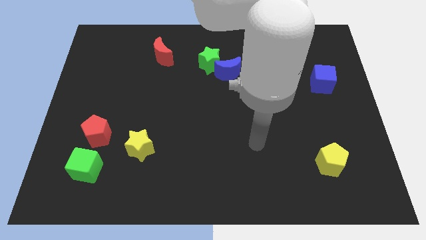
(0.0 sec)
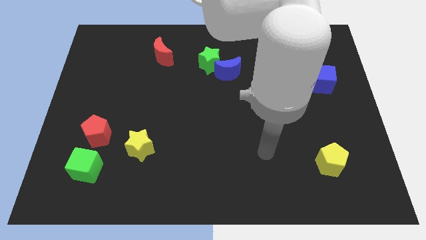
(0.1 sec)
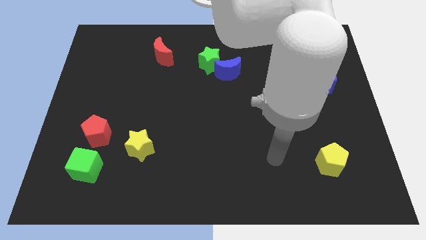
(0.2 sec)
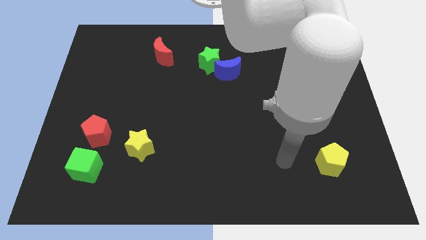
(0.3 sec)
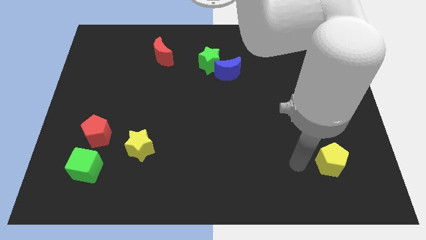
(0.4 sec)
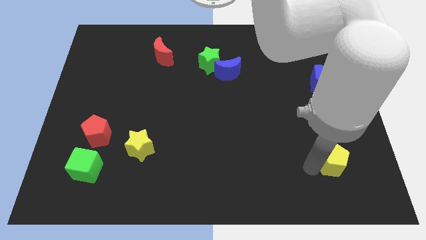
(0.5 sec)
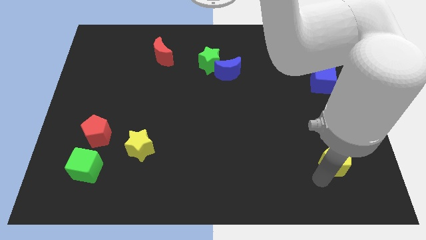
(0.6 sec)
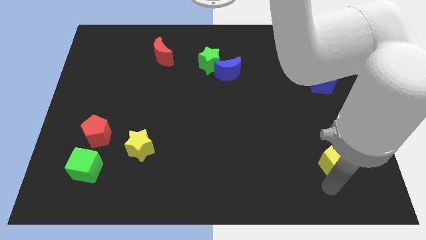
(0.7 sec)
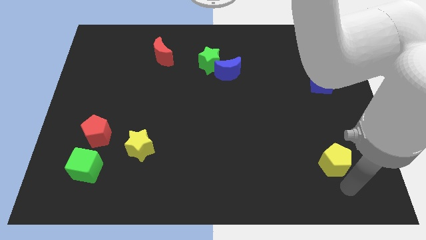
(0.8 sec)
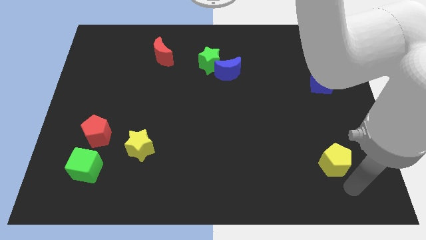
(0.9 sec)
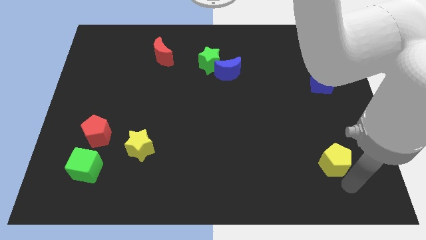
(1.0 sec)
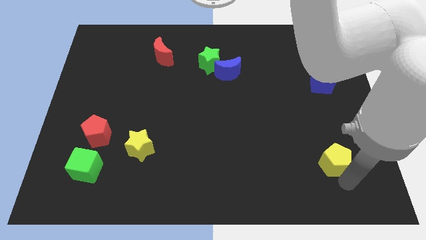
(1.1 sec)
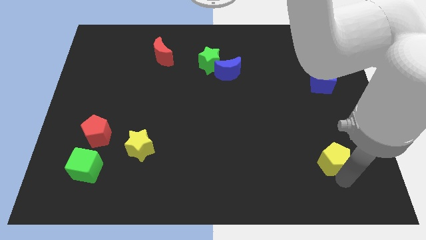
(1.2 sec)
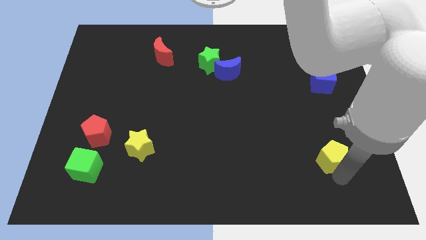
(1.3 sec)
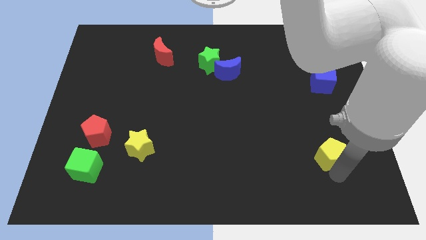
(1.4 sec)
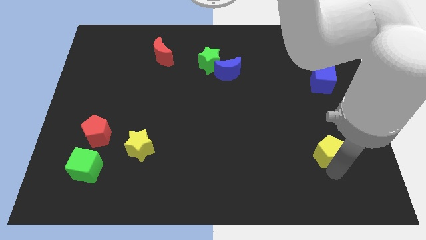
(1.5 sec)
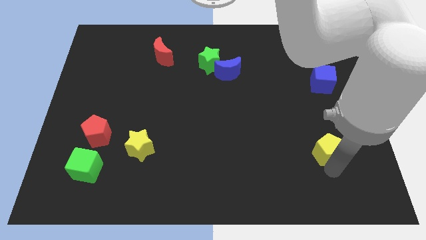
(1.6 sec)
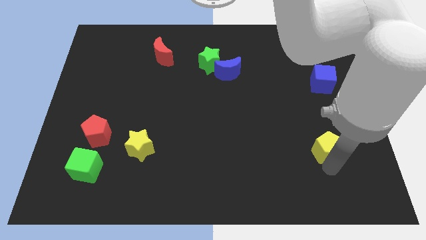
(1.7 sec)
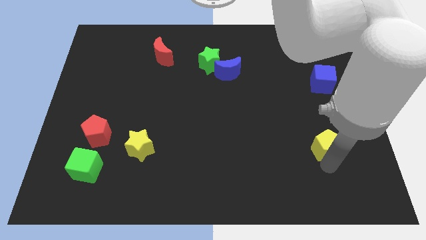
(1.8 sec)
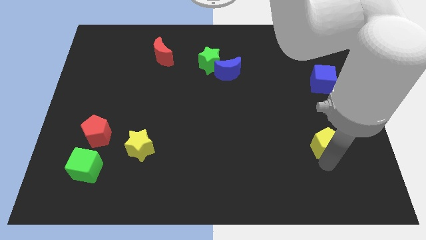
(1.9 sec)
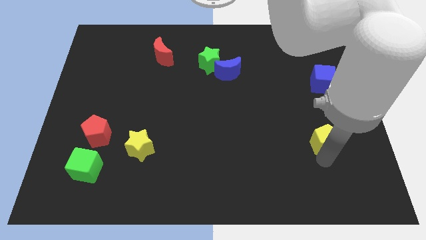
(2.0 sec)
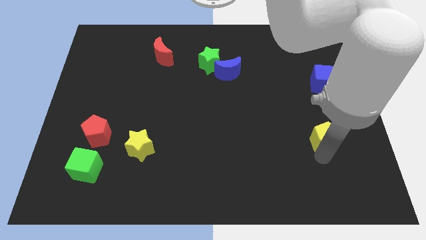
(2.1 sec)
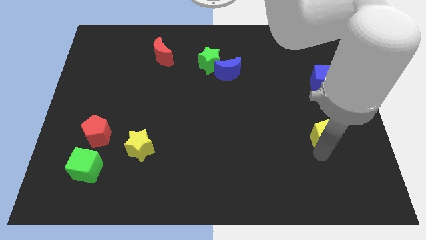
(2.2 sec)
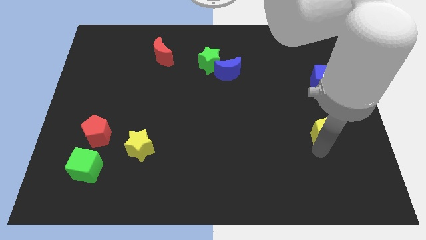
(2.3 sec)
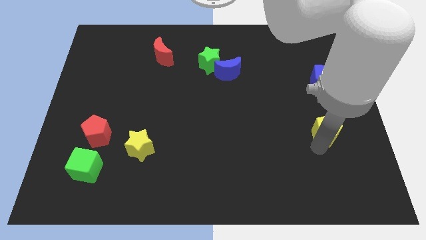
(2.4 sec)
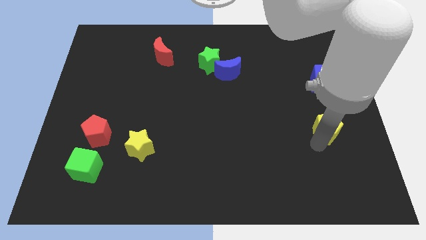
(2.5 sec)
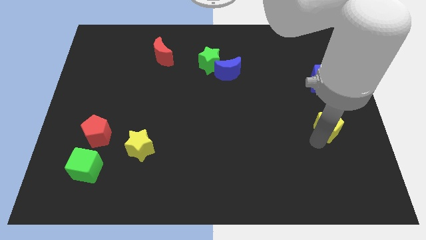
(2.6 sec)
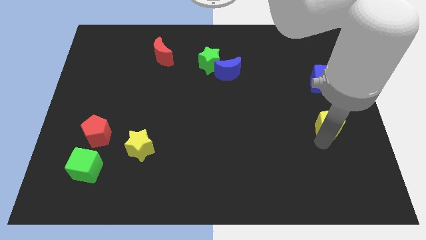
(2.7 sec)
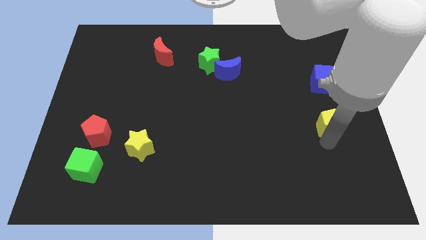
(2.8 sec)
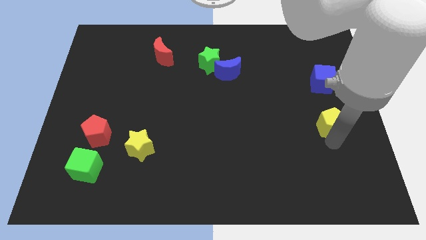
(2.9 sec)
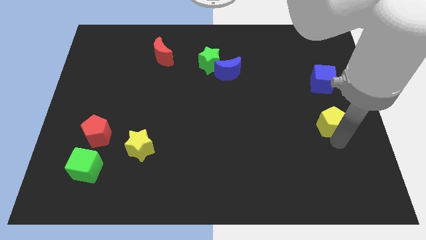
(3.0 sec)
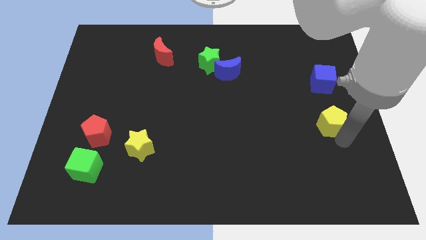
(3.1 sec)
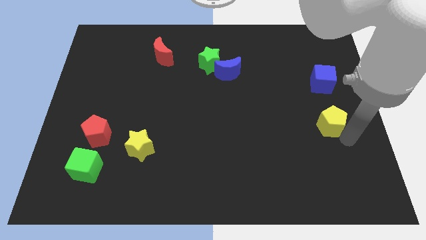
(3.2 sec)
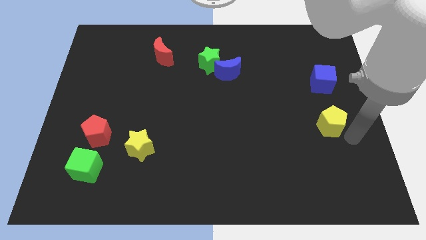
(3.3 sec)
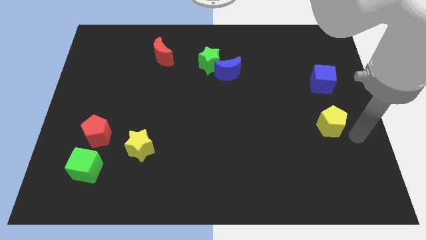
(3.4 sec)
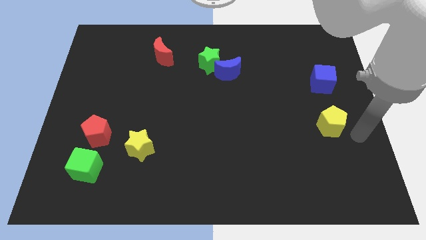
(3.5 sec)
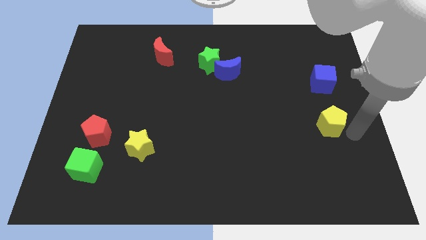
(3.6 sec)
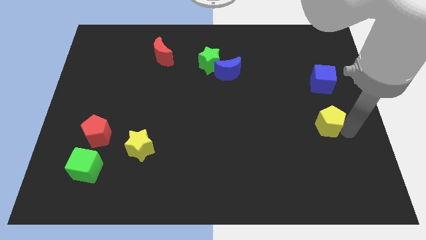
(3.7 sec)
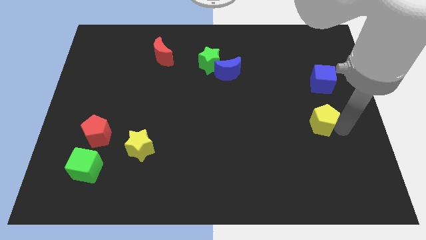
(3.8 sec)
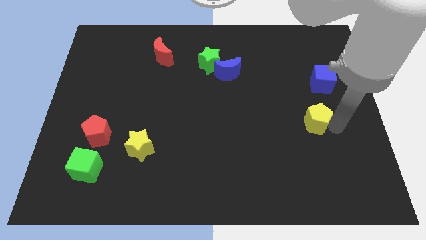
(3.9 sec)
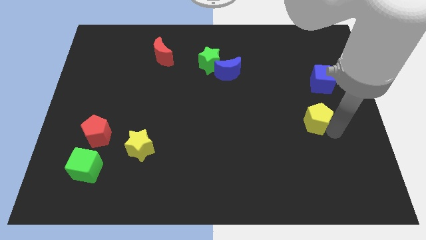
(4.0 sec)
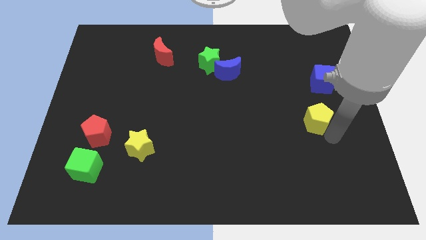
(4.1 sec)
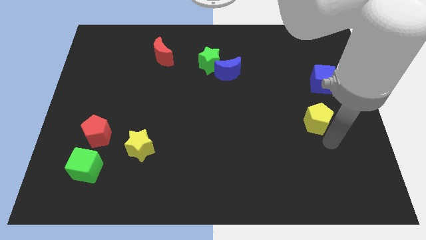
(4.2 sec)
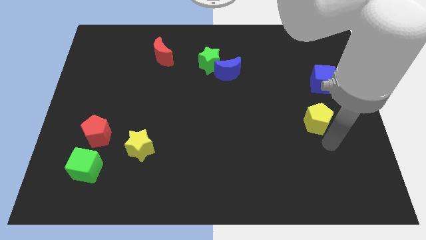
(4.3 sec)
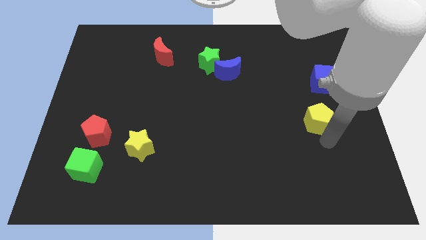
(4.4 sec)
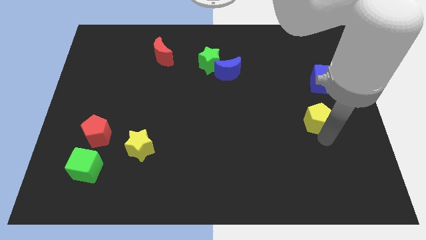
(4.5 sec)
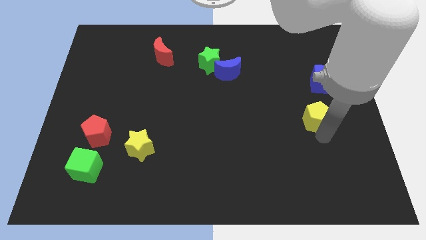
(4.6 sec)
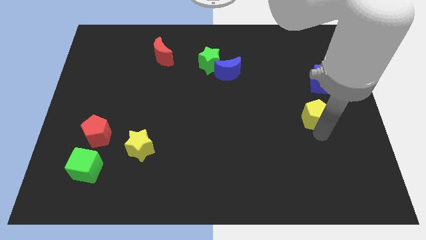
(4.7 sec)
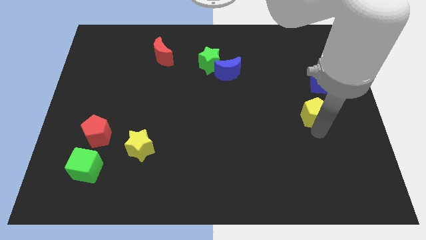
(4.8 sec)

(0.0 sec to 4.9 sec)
push the yellow pentagon to the bottom left side of the blue cube

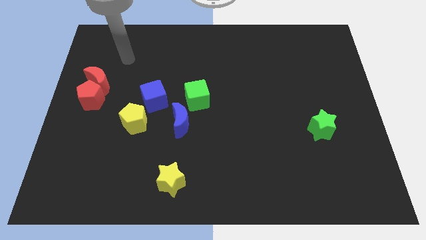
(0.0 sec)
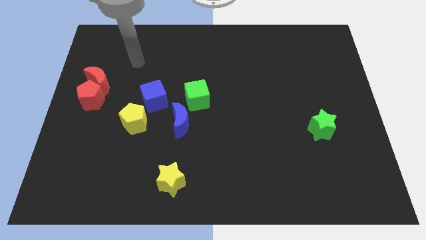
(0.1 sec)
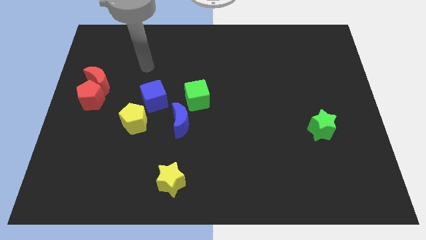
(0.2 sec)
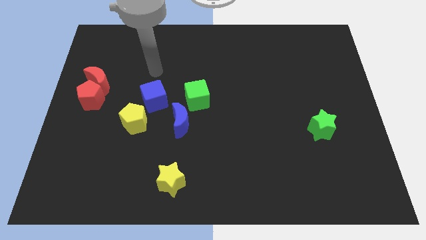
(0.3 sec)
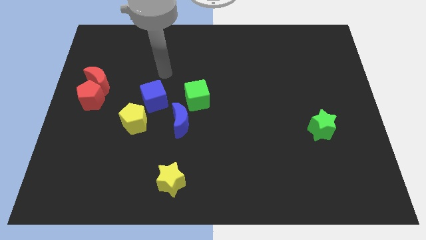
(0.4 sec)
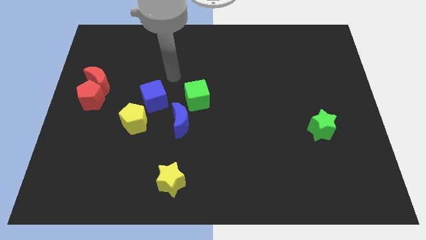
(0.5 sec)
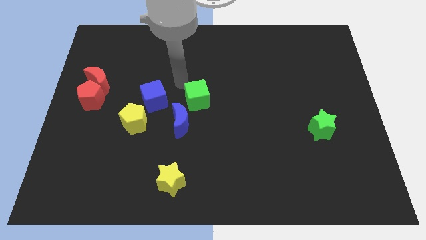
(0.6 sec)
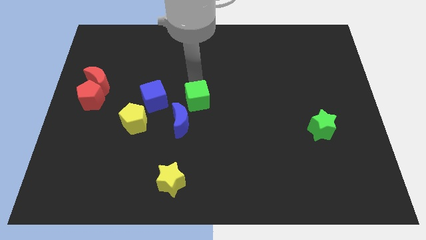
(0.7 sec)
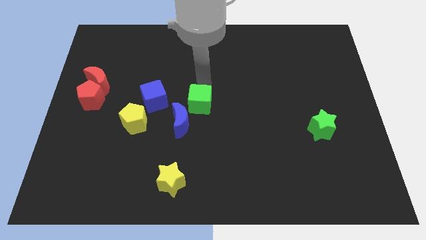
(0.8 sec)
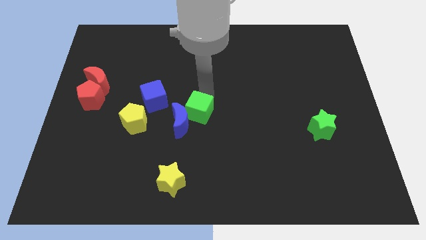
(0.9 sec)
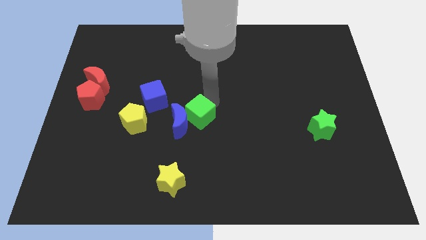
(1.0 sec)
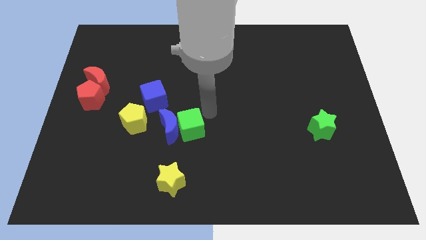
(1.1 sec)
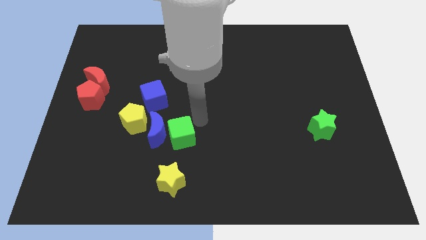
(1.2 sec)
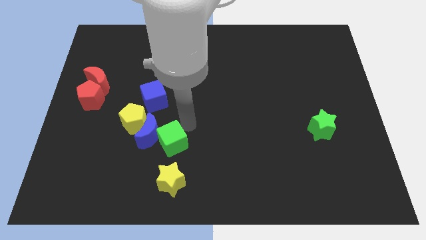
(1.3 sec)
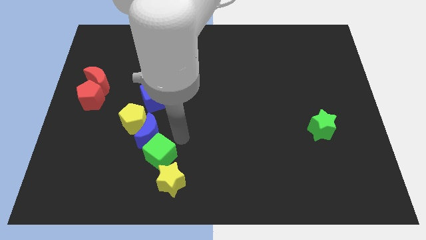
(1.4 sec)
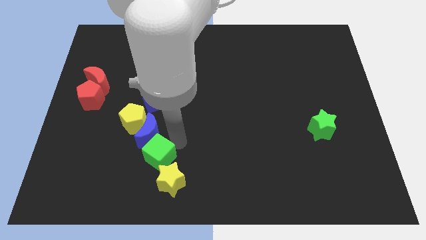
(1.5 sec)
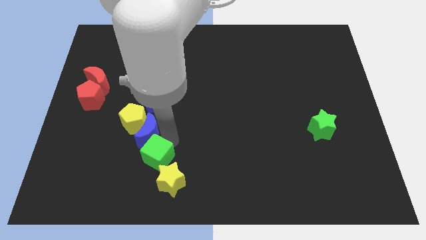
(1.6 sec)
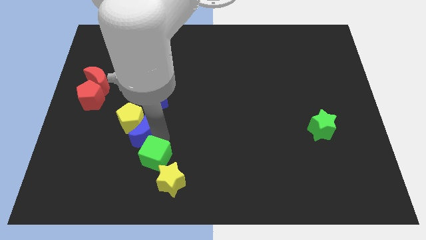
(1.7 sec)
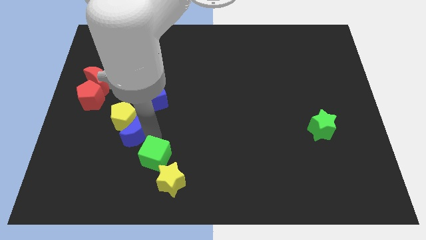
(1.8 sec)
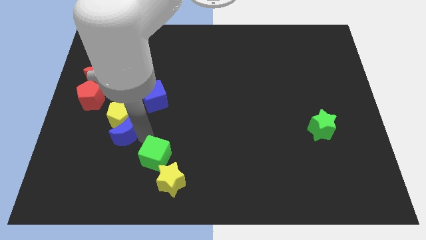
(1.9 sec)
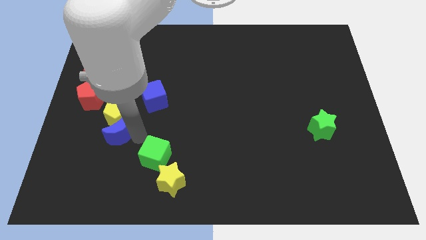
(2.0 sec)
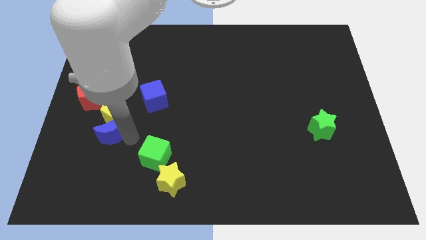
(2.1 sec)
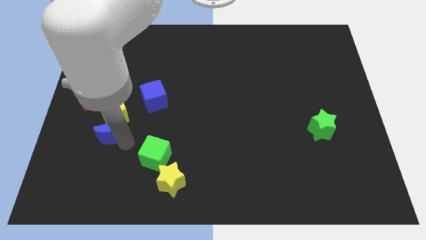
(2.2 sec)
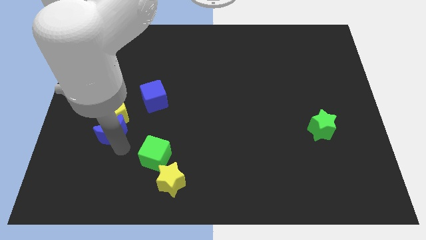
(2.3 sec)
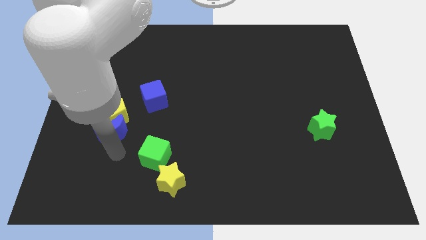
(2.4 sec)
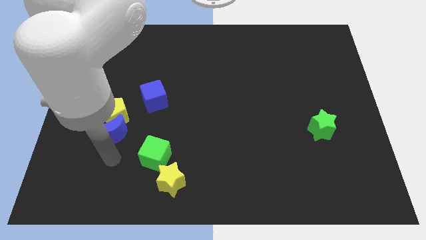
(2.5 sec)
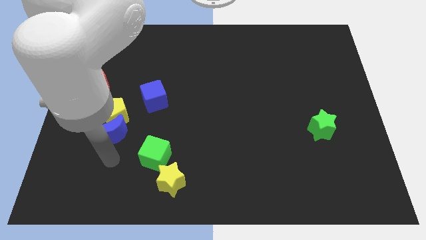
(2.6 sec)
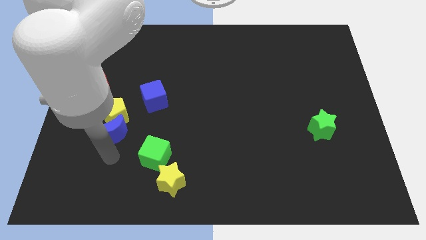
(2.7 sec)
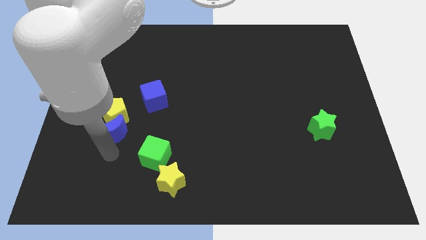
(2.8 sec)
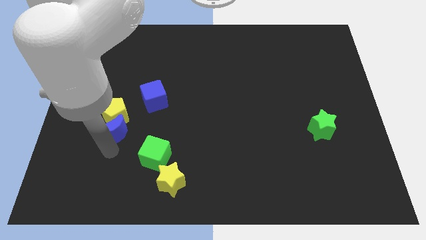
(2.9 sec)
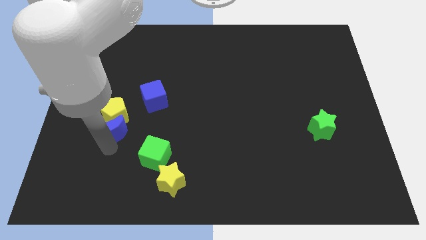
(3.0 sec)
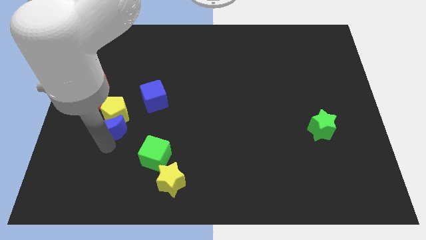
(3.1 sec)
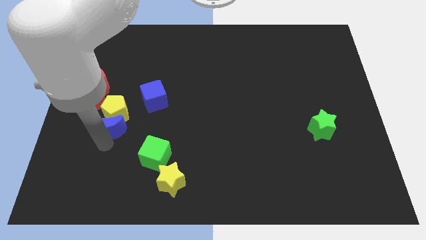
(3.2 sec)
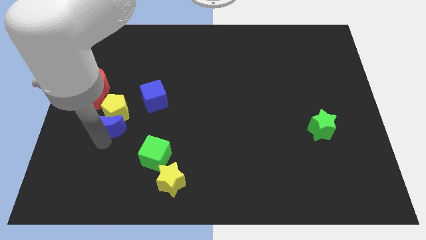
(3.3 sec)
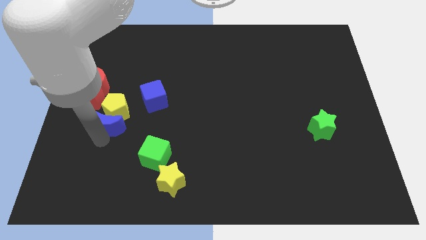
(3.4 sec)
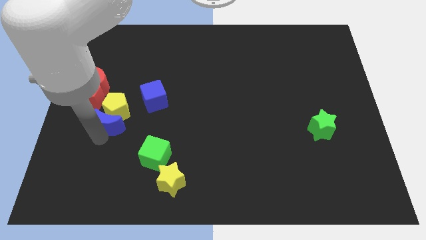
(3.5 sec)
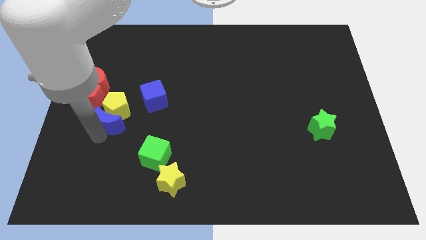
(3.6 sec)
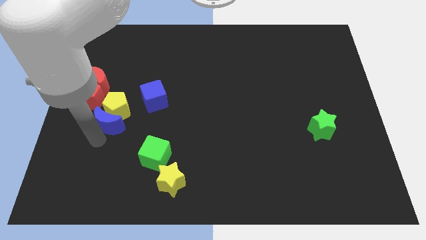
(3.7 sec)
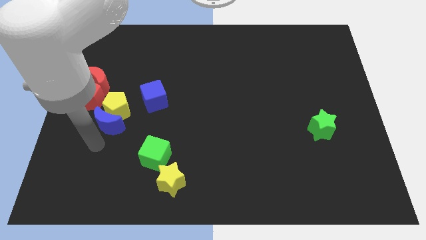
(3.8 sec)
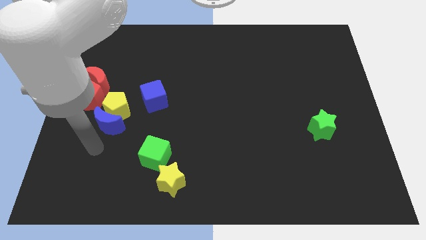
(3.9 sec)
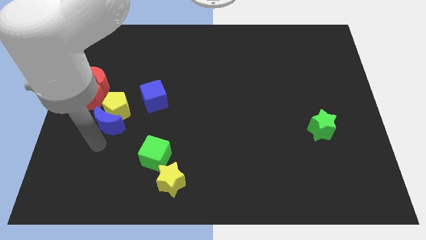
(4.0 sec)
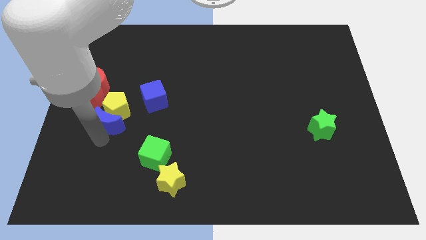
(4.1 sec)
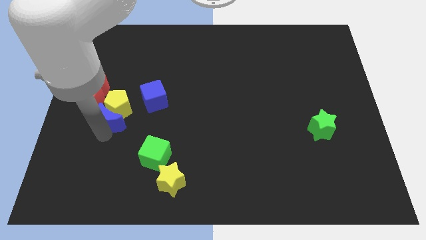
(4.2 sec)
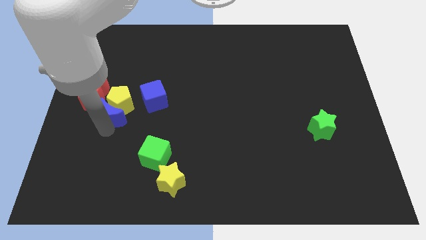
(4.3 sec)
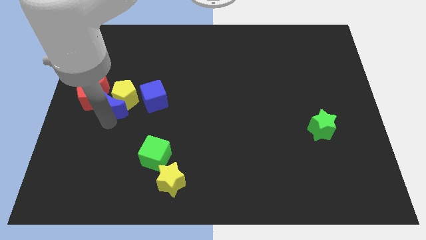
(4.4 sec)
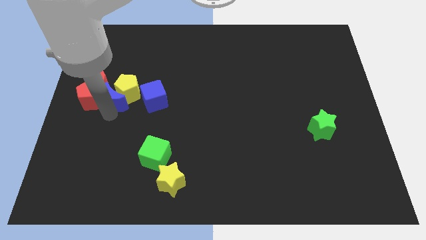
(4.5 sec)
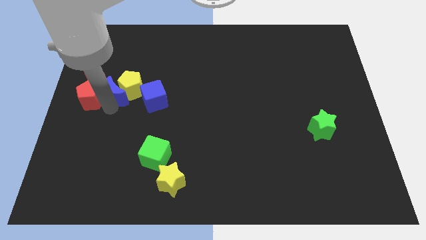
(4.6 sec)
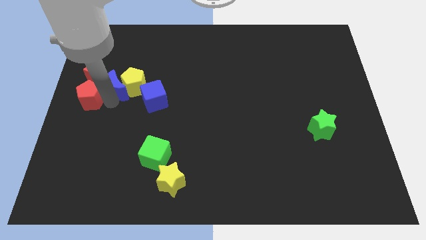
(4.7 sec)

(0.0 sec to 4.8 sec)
slide the blue moon diagonally up and to the left of the blue cube
